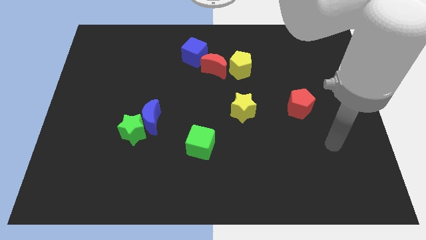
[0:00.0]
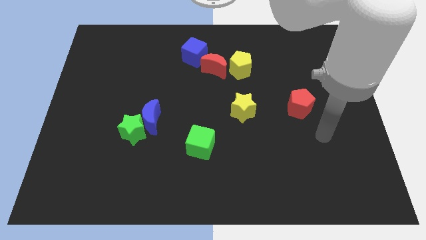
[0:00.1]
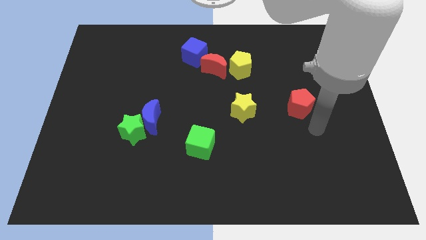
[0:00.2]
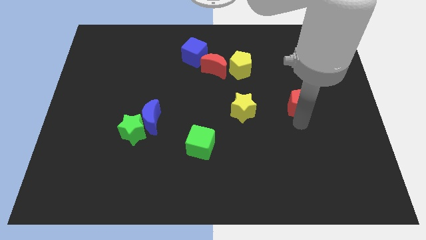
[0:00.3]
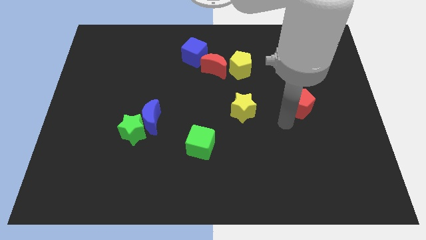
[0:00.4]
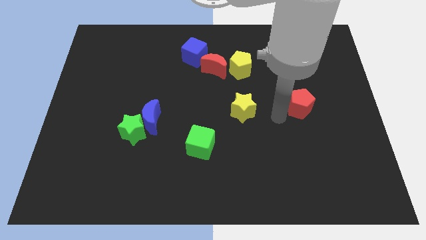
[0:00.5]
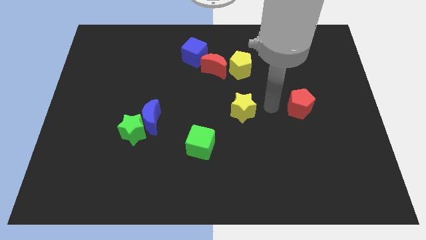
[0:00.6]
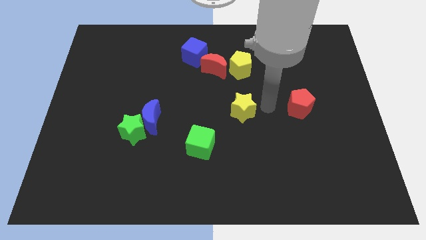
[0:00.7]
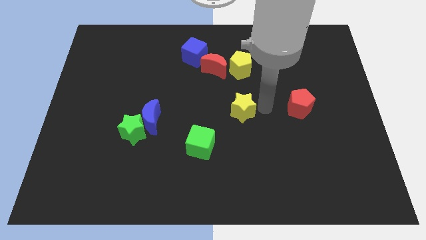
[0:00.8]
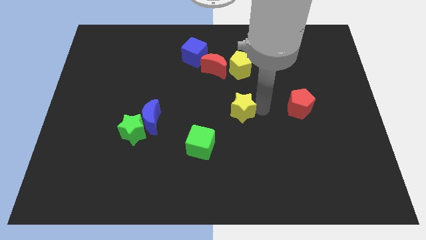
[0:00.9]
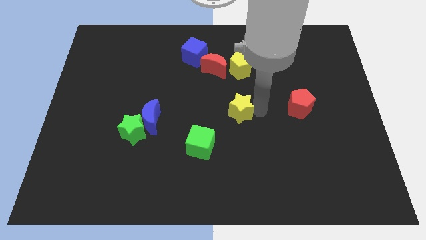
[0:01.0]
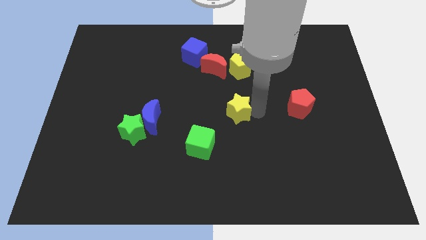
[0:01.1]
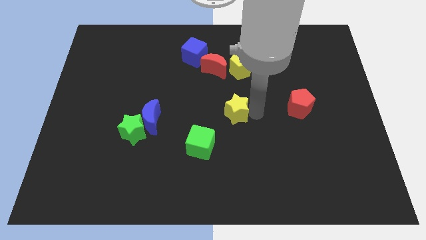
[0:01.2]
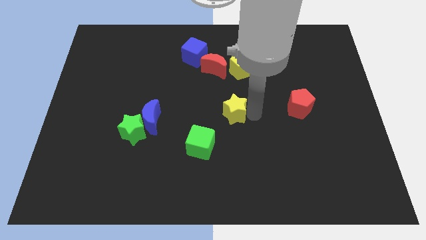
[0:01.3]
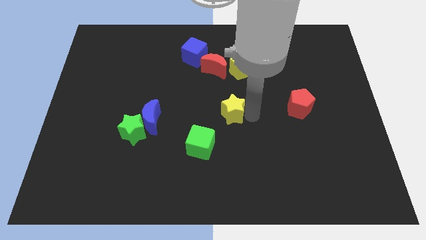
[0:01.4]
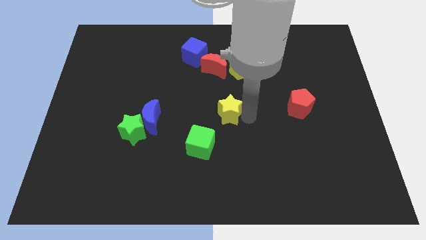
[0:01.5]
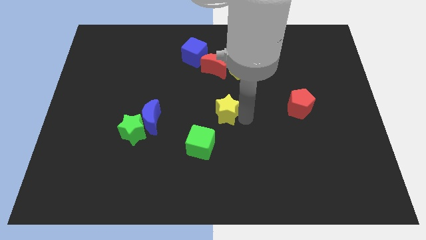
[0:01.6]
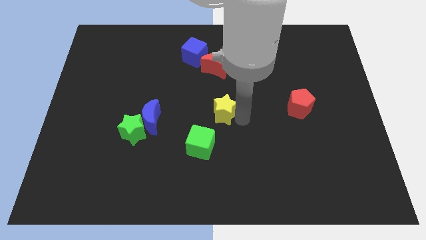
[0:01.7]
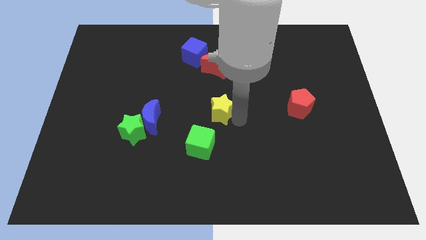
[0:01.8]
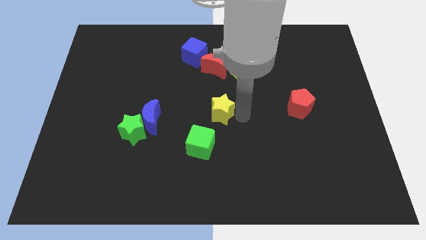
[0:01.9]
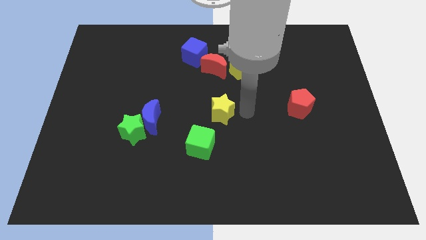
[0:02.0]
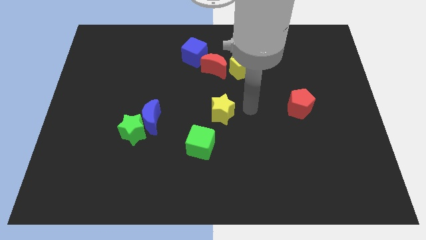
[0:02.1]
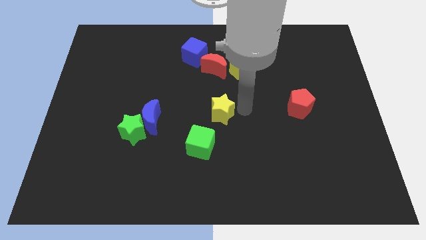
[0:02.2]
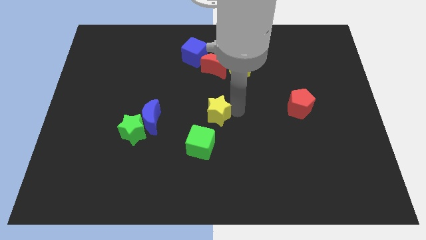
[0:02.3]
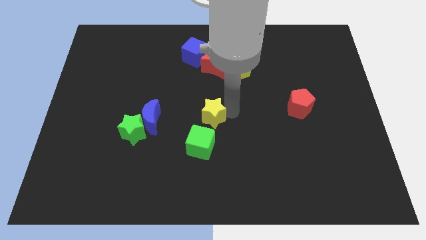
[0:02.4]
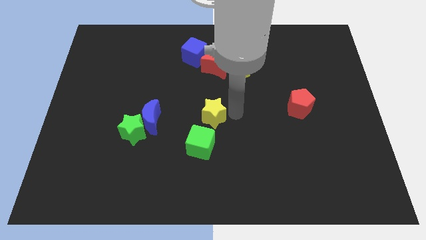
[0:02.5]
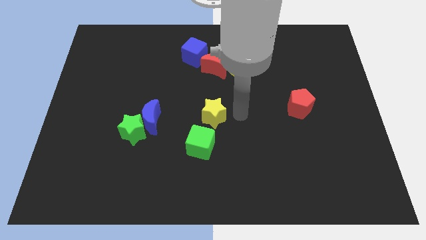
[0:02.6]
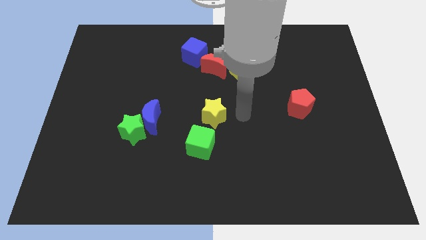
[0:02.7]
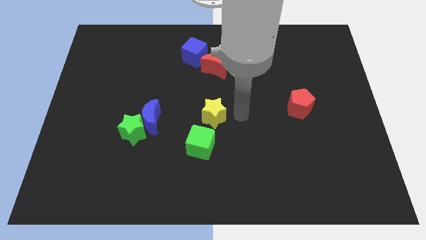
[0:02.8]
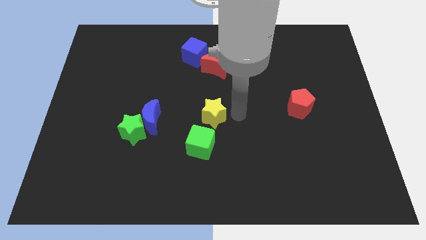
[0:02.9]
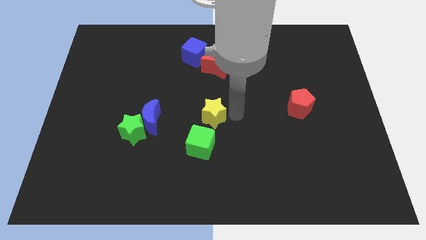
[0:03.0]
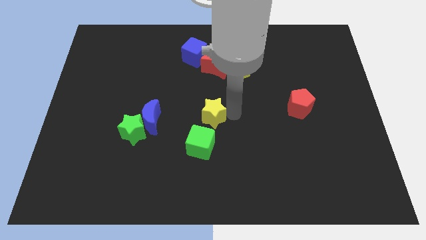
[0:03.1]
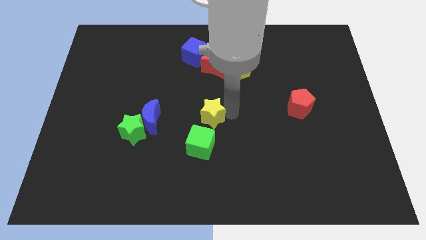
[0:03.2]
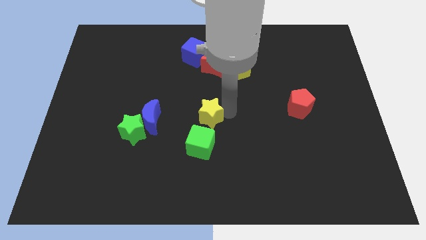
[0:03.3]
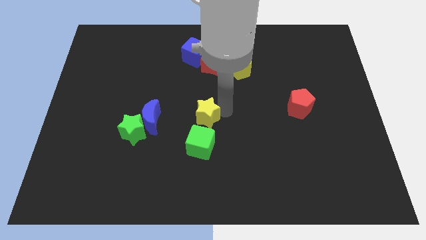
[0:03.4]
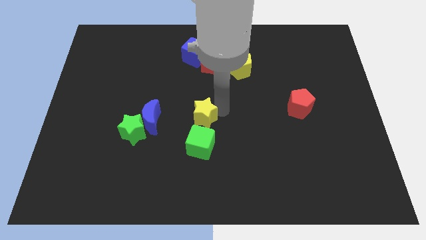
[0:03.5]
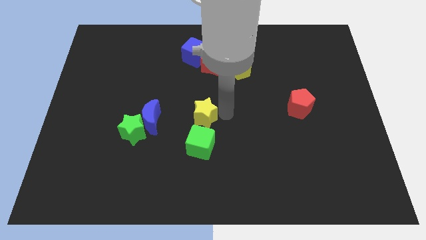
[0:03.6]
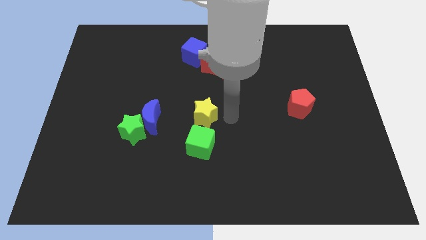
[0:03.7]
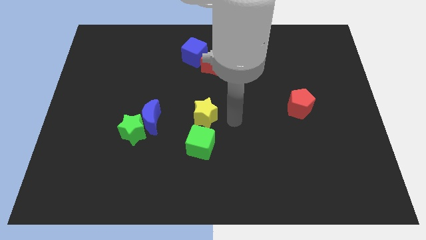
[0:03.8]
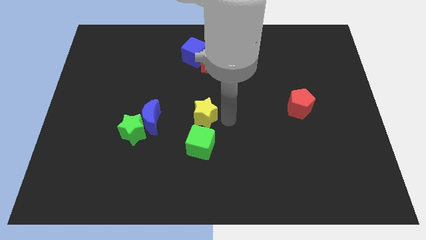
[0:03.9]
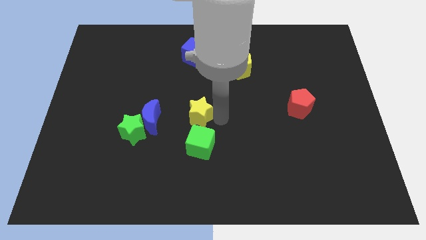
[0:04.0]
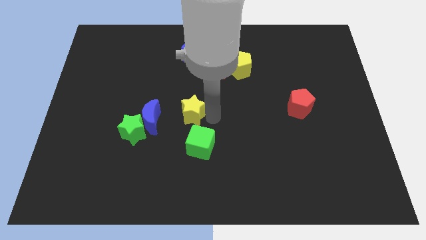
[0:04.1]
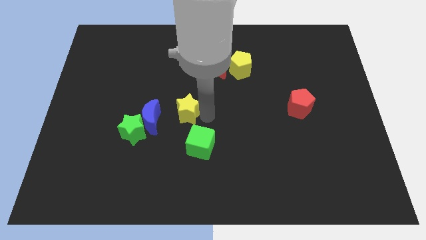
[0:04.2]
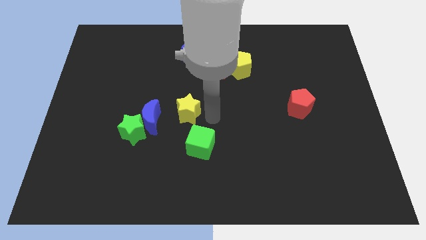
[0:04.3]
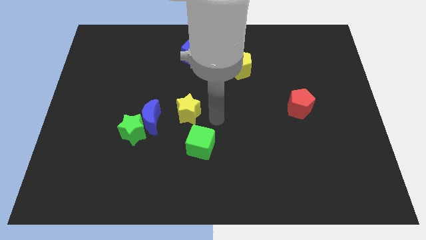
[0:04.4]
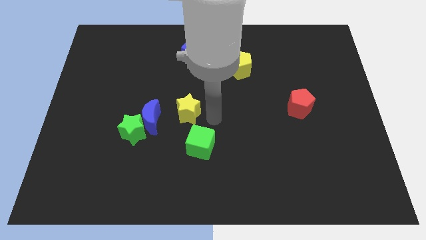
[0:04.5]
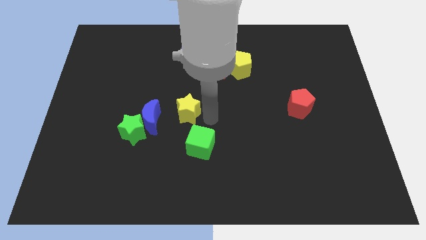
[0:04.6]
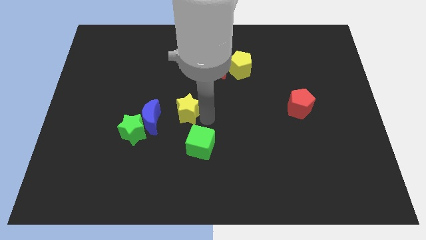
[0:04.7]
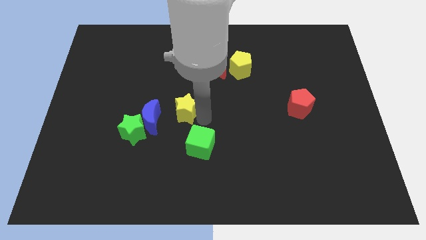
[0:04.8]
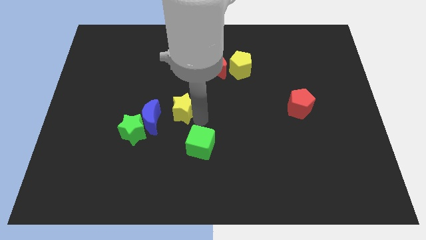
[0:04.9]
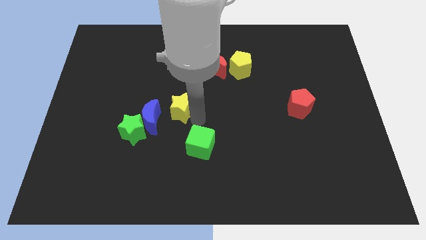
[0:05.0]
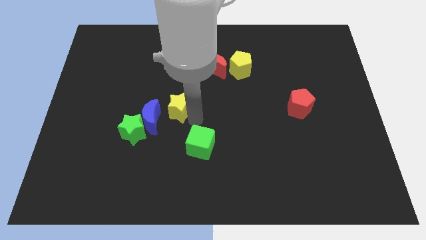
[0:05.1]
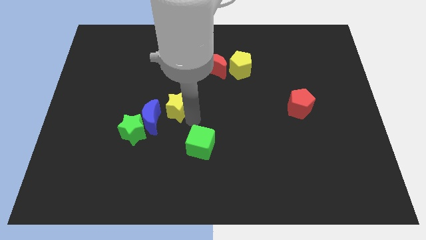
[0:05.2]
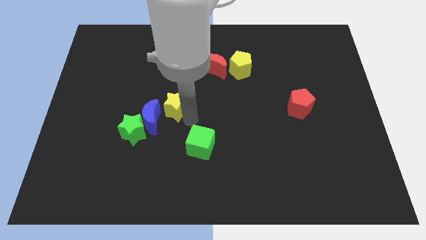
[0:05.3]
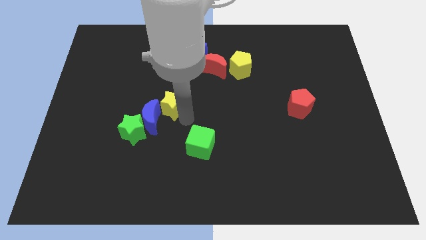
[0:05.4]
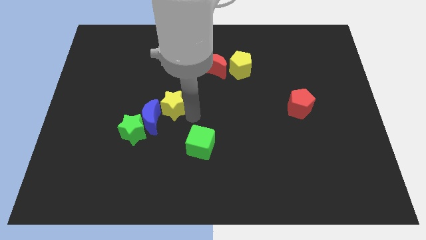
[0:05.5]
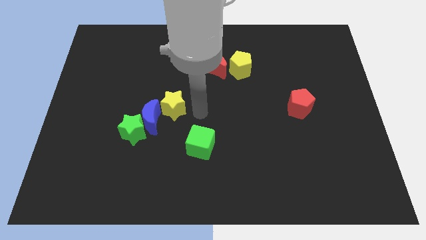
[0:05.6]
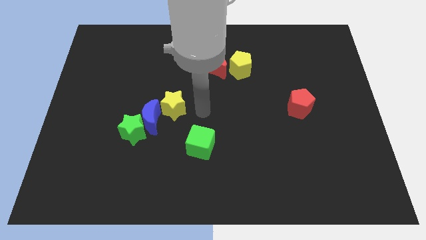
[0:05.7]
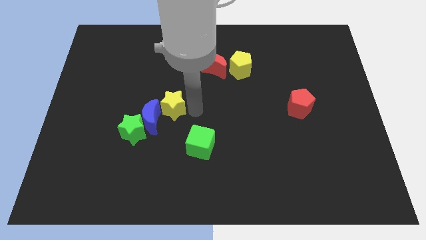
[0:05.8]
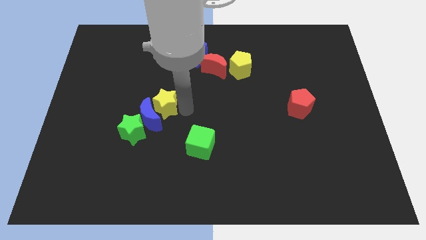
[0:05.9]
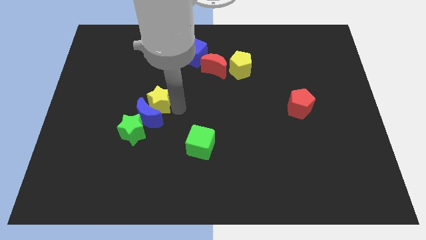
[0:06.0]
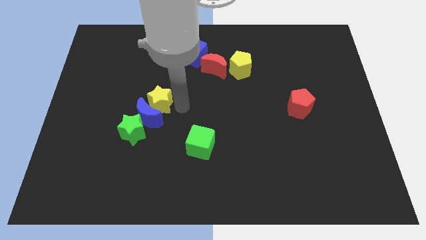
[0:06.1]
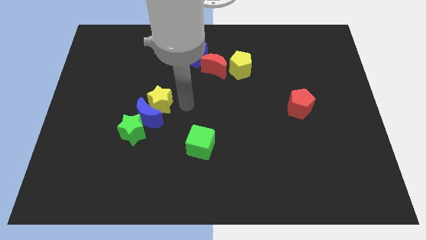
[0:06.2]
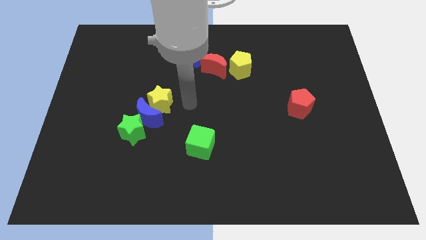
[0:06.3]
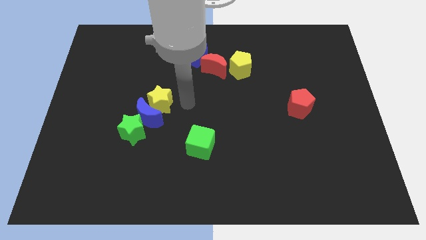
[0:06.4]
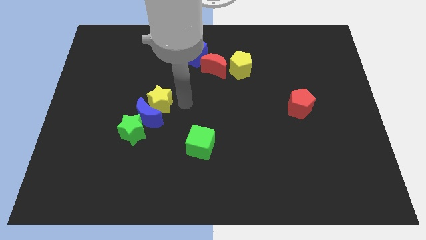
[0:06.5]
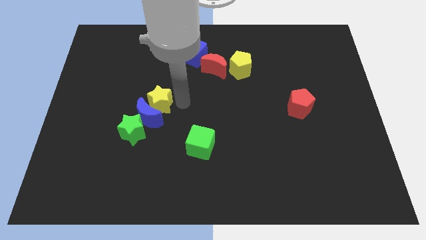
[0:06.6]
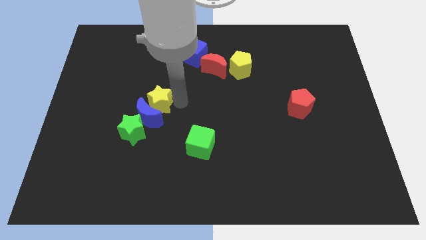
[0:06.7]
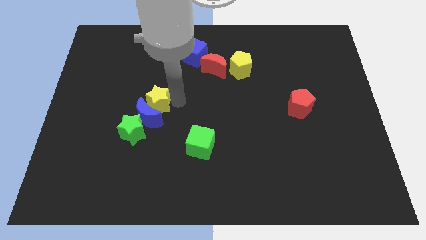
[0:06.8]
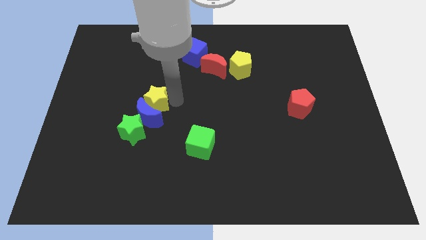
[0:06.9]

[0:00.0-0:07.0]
move the yellow star to the left

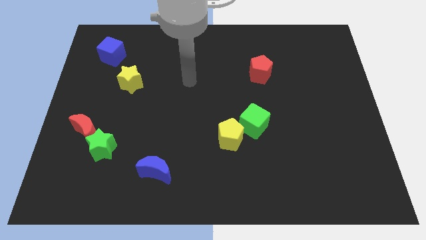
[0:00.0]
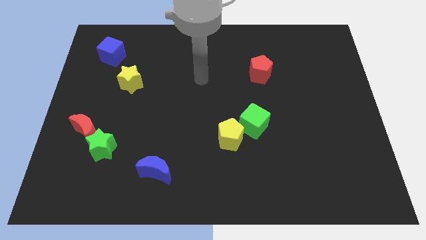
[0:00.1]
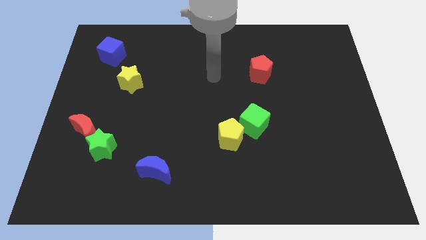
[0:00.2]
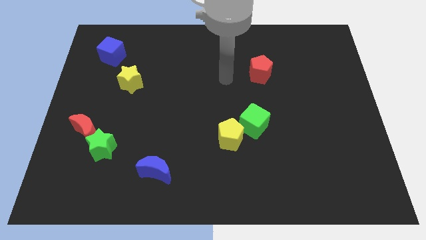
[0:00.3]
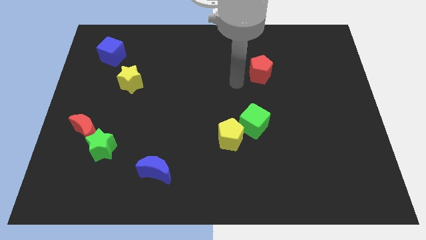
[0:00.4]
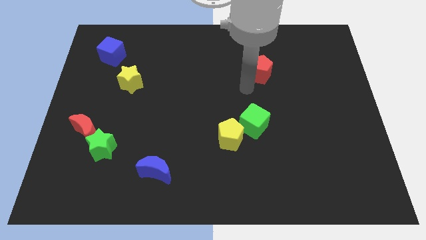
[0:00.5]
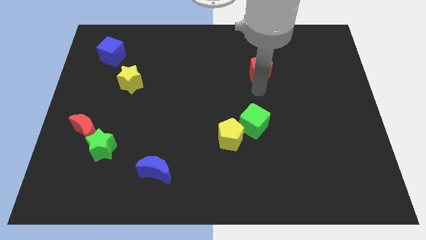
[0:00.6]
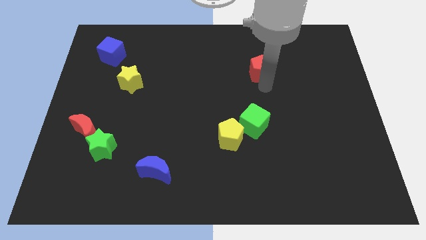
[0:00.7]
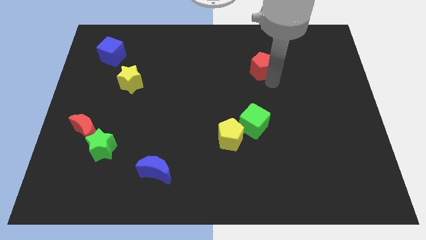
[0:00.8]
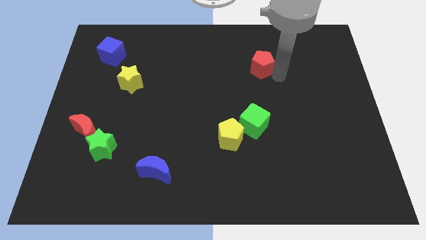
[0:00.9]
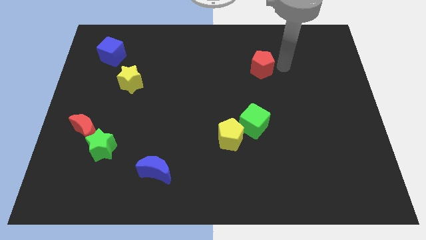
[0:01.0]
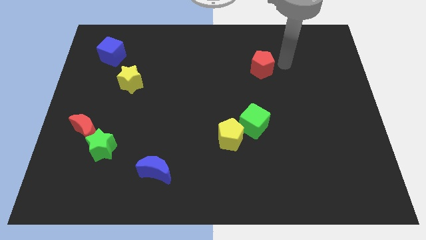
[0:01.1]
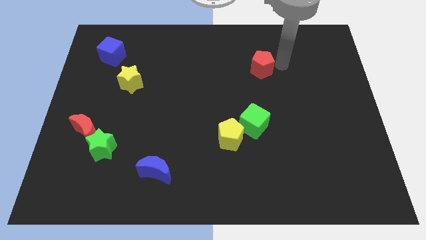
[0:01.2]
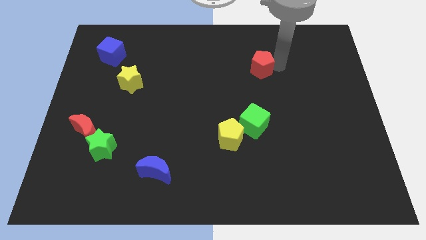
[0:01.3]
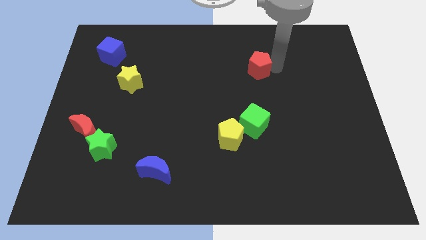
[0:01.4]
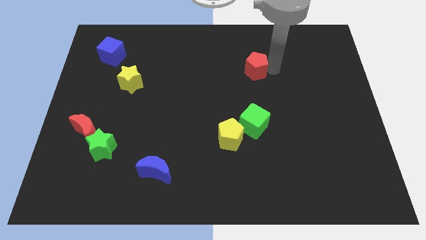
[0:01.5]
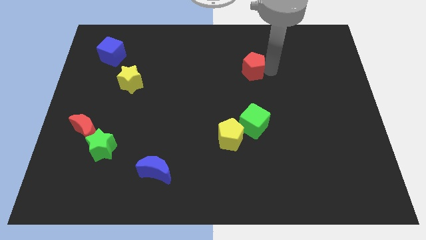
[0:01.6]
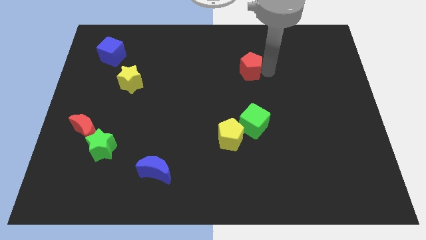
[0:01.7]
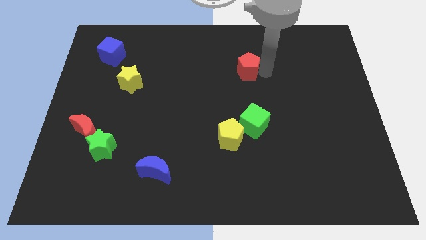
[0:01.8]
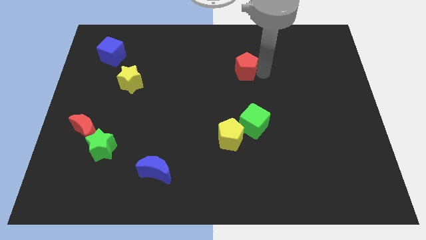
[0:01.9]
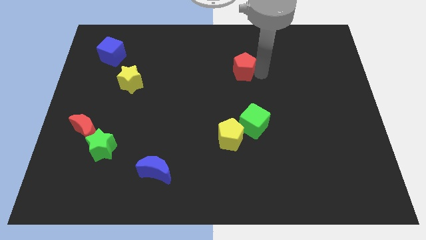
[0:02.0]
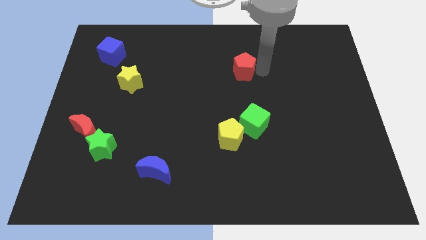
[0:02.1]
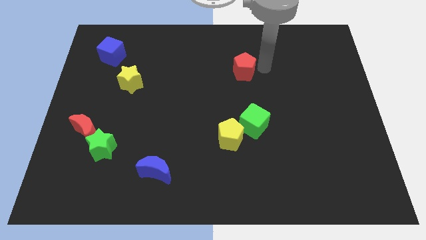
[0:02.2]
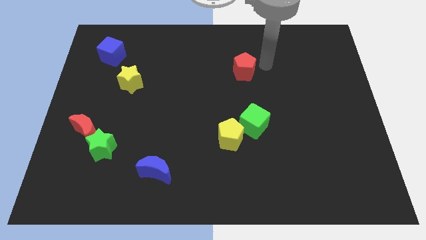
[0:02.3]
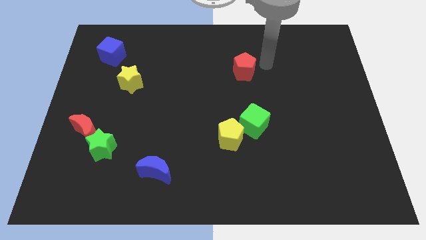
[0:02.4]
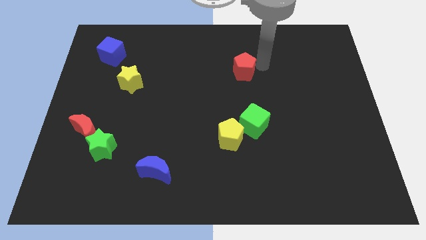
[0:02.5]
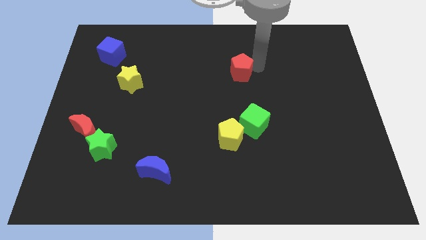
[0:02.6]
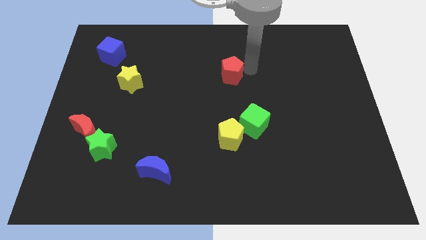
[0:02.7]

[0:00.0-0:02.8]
push the red pentagon left slightly
